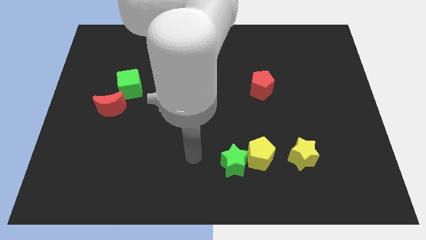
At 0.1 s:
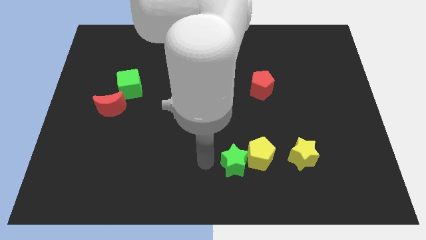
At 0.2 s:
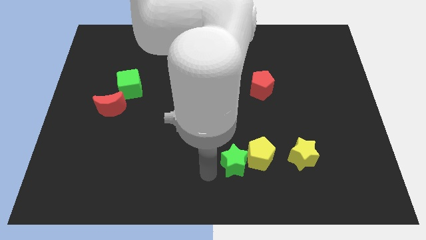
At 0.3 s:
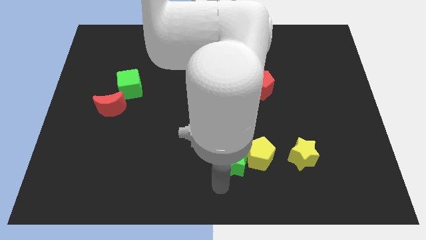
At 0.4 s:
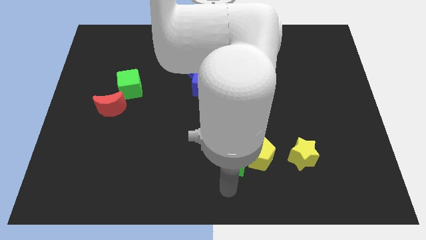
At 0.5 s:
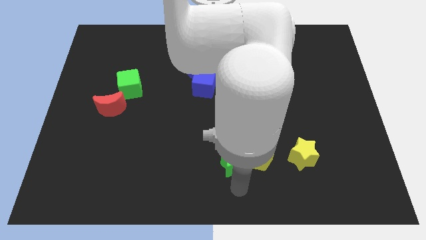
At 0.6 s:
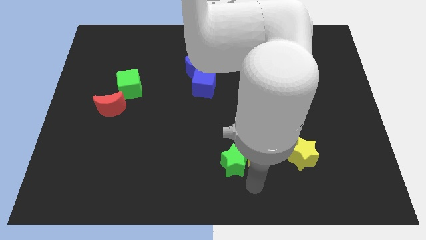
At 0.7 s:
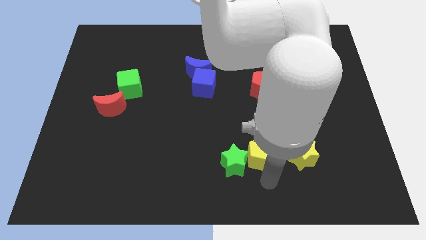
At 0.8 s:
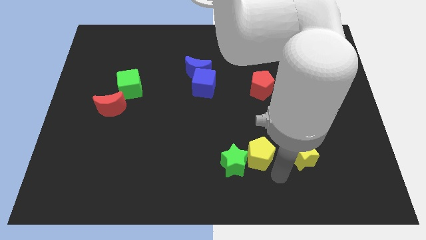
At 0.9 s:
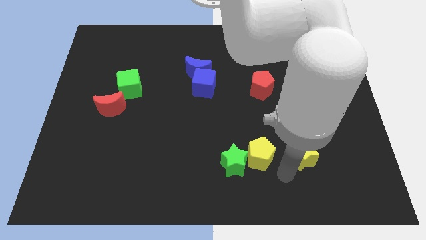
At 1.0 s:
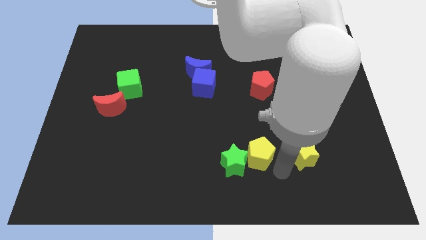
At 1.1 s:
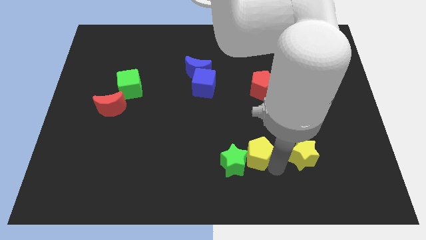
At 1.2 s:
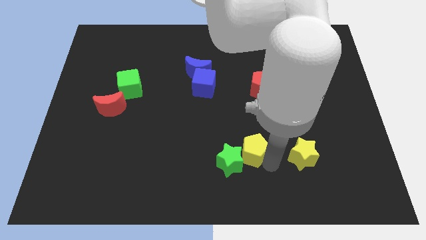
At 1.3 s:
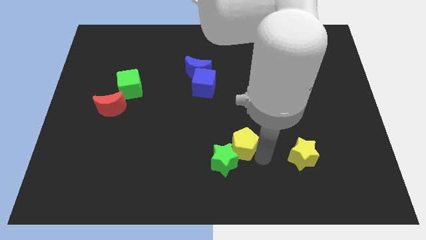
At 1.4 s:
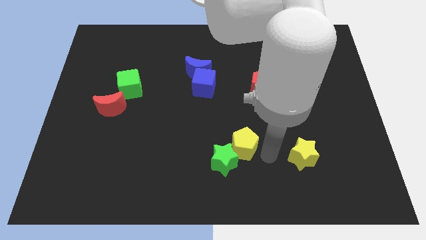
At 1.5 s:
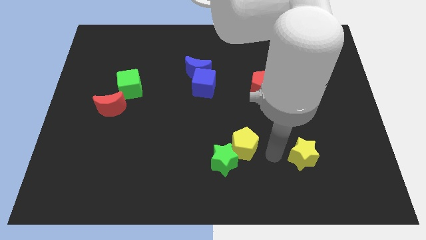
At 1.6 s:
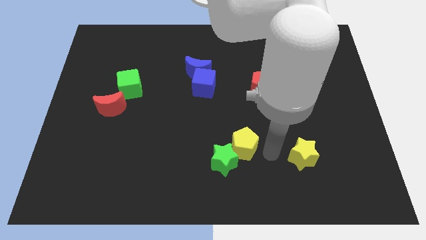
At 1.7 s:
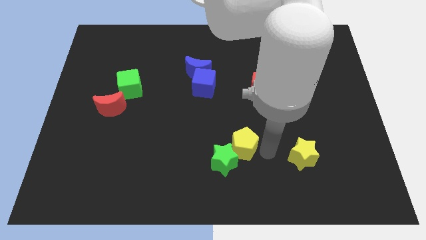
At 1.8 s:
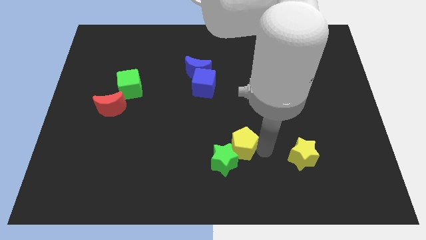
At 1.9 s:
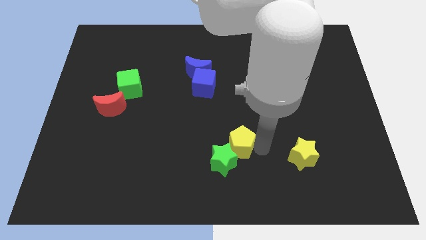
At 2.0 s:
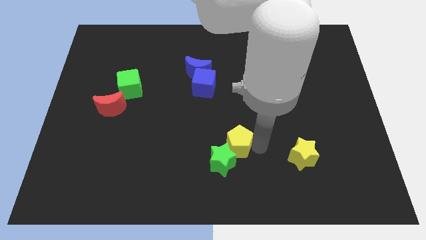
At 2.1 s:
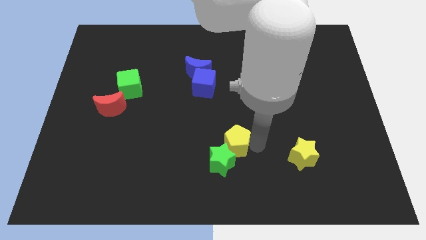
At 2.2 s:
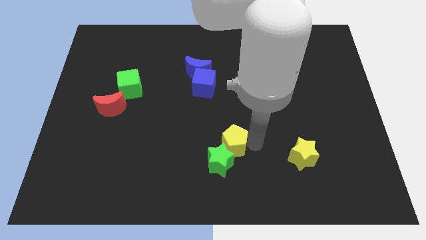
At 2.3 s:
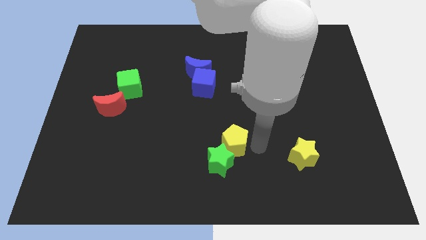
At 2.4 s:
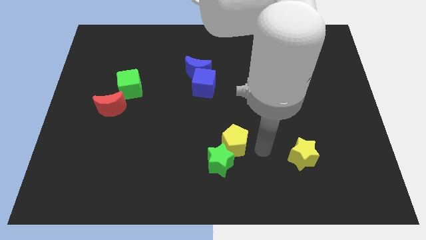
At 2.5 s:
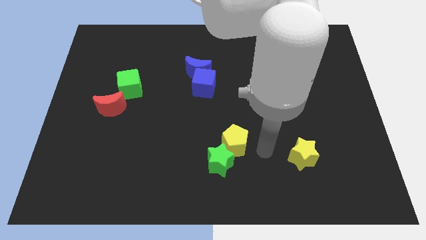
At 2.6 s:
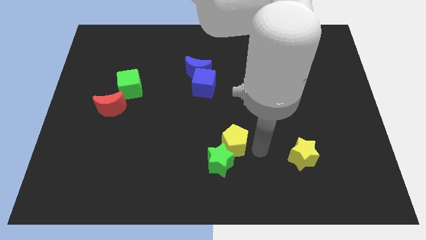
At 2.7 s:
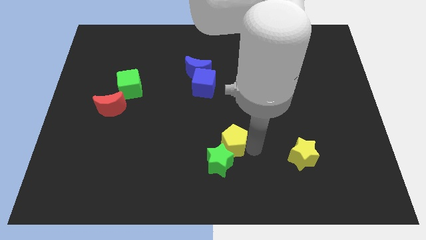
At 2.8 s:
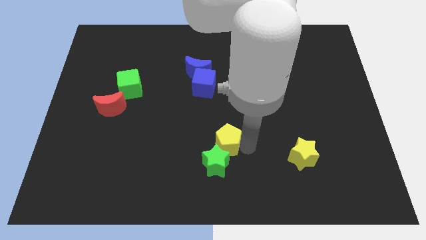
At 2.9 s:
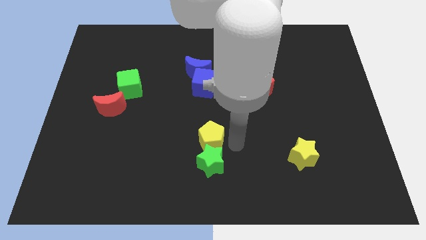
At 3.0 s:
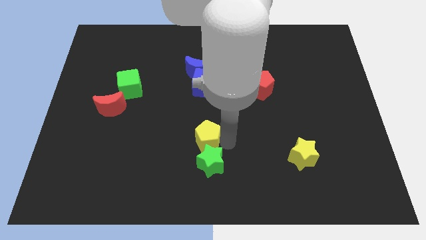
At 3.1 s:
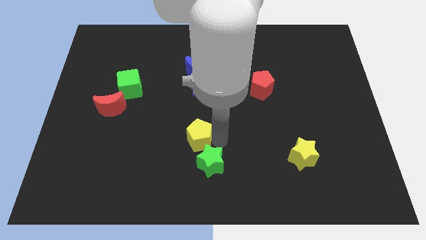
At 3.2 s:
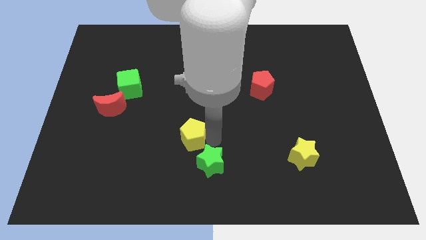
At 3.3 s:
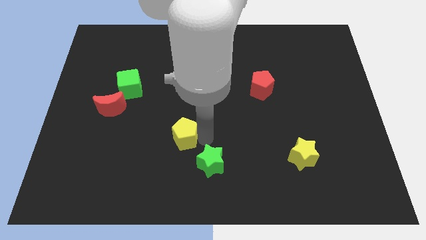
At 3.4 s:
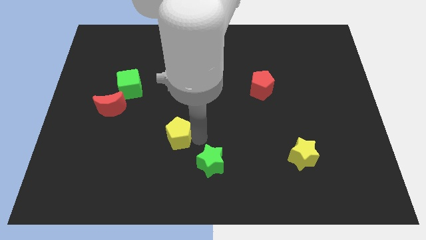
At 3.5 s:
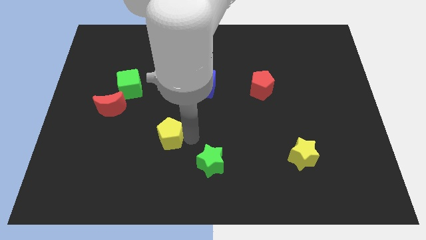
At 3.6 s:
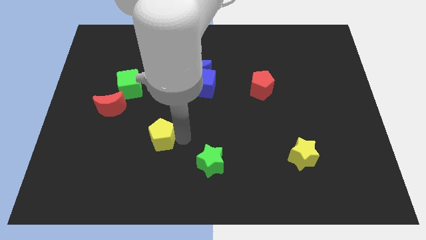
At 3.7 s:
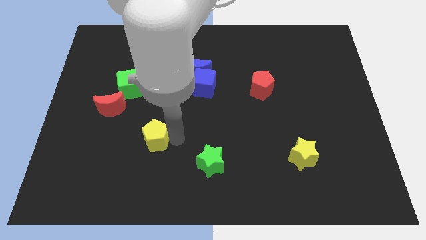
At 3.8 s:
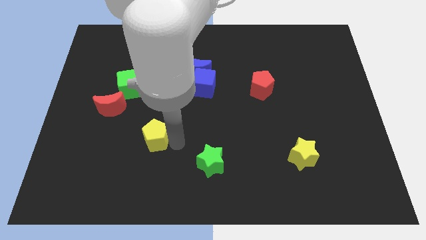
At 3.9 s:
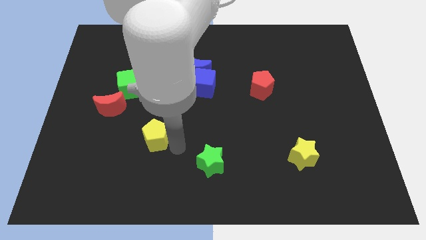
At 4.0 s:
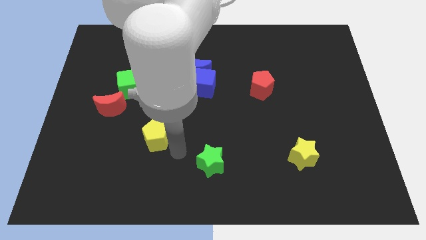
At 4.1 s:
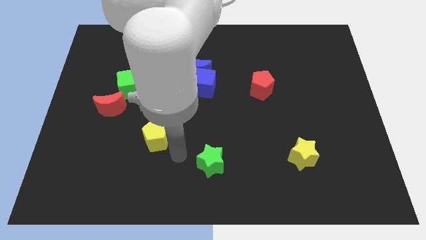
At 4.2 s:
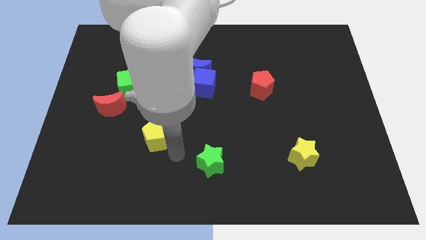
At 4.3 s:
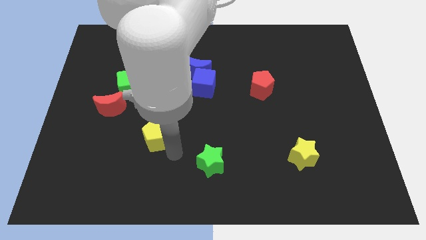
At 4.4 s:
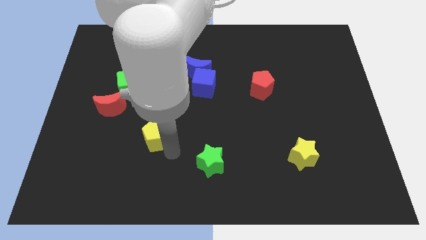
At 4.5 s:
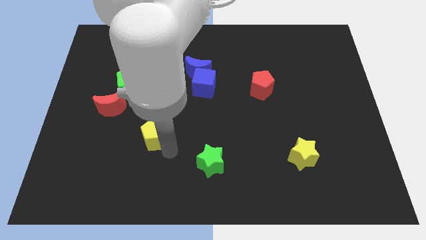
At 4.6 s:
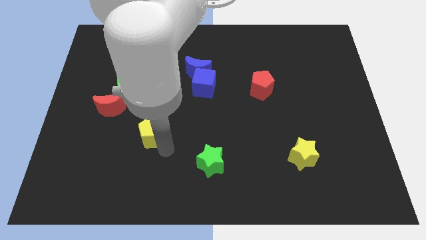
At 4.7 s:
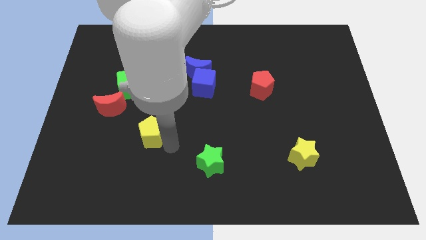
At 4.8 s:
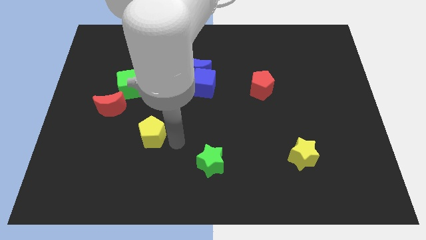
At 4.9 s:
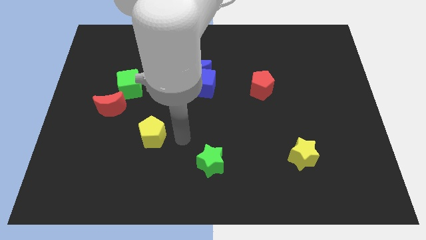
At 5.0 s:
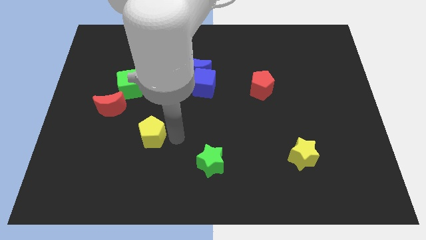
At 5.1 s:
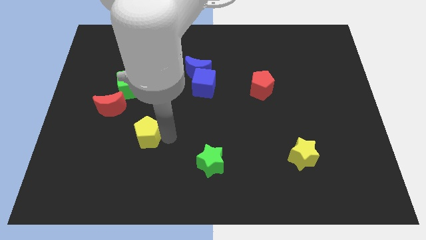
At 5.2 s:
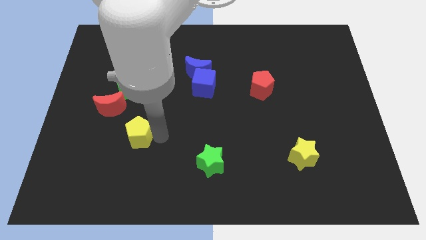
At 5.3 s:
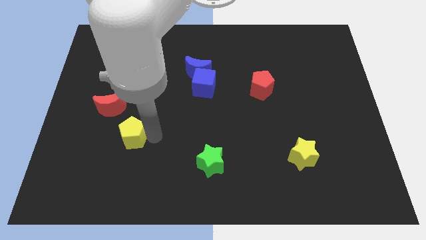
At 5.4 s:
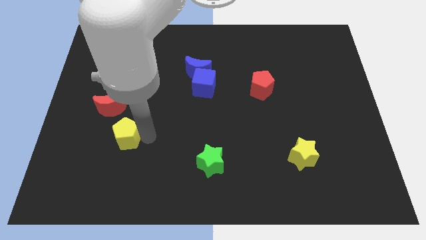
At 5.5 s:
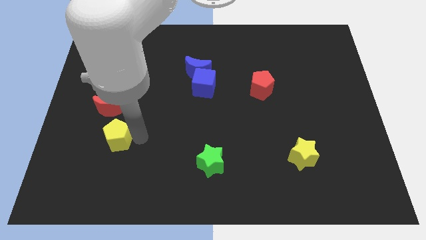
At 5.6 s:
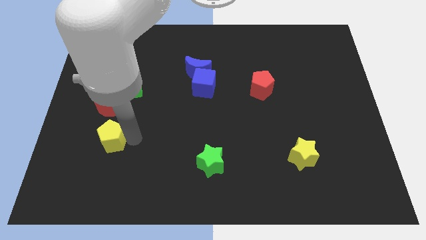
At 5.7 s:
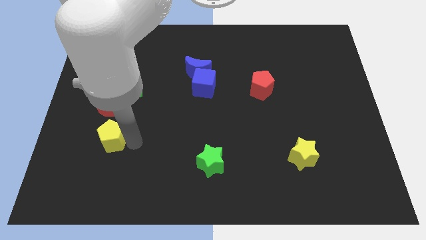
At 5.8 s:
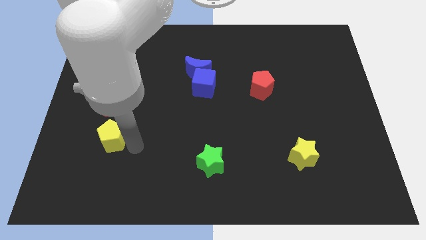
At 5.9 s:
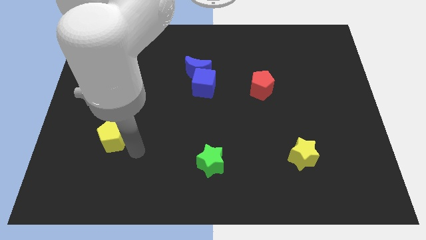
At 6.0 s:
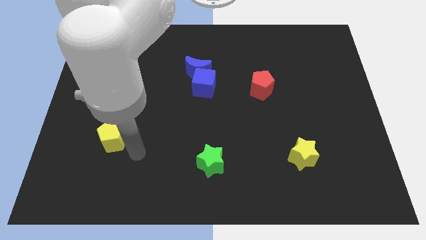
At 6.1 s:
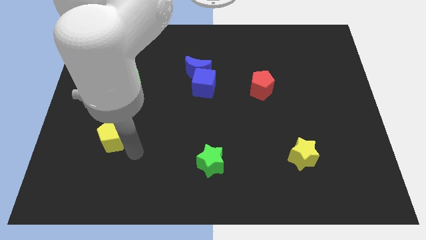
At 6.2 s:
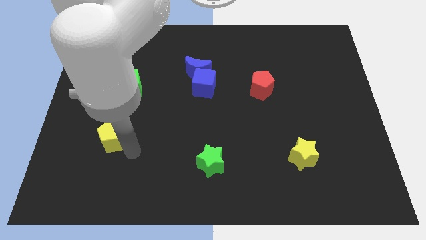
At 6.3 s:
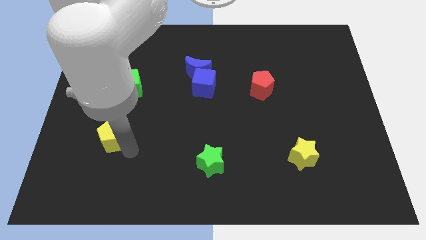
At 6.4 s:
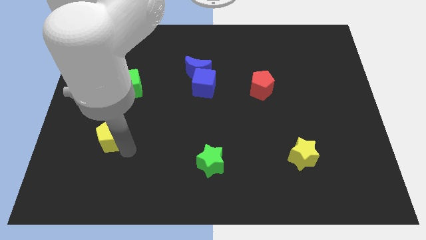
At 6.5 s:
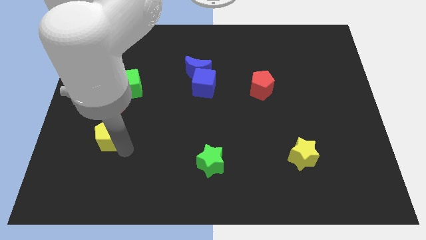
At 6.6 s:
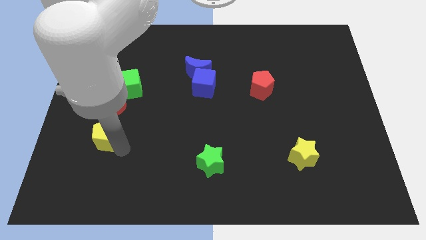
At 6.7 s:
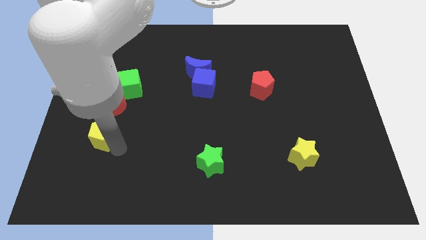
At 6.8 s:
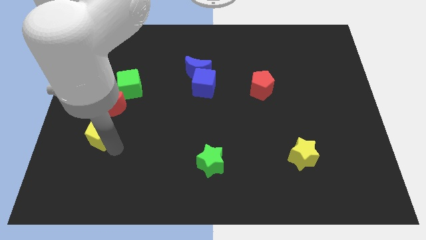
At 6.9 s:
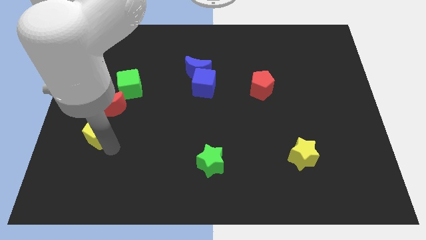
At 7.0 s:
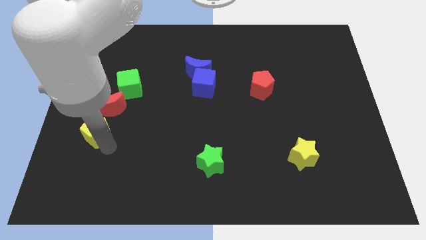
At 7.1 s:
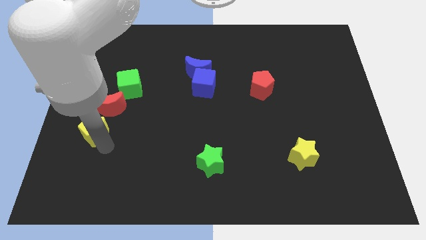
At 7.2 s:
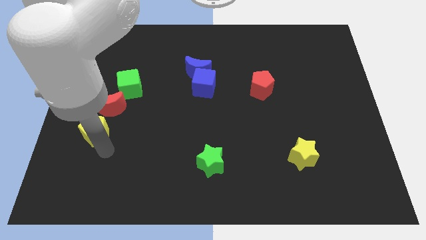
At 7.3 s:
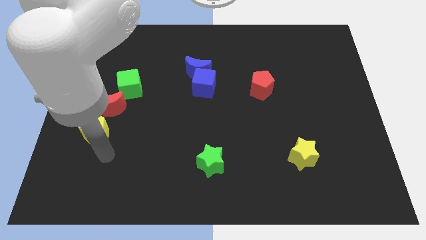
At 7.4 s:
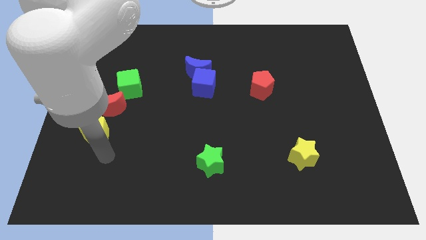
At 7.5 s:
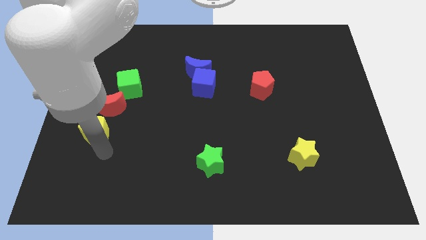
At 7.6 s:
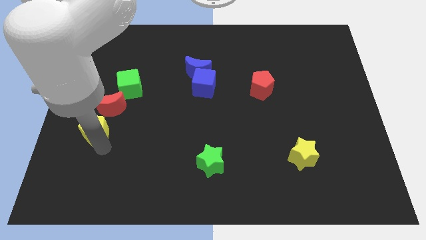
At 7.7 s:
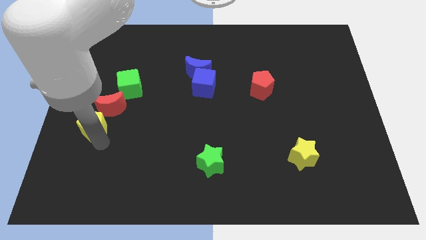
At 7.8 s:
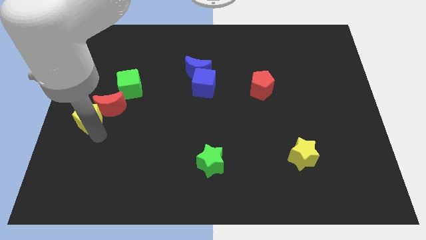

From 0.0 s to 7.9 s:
slide the yellow pentagon to the left side
